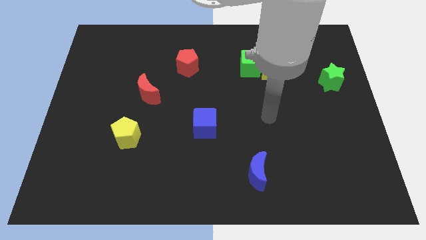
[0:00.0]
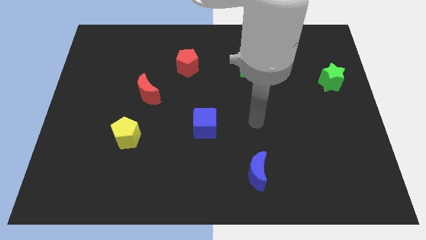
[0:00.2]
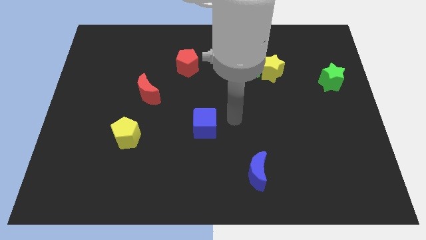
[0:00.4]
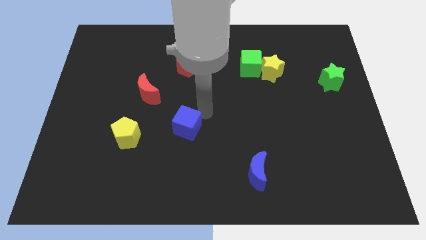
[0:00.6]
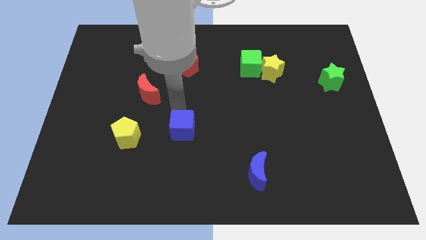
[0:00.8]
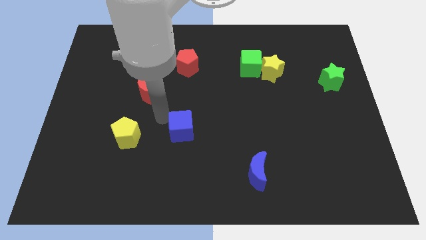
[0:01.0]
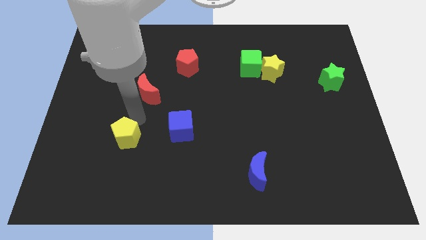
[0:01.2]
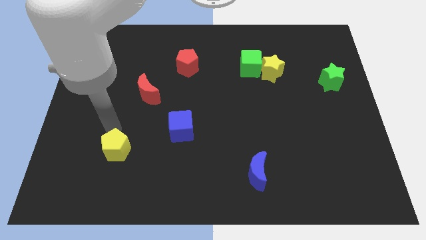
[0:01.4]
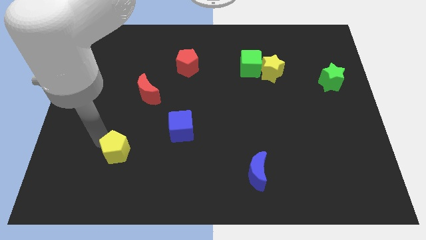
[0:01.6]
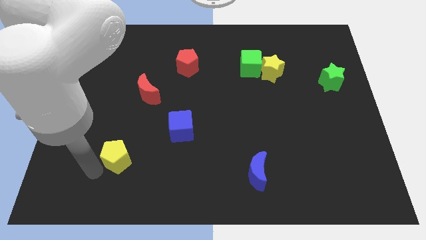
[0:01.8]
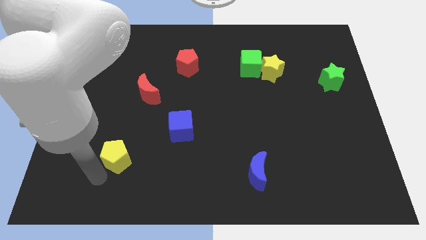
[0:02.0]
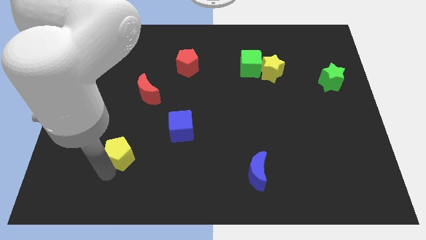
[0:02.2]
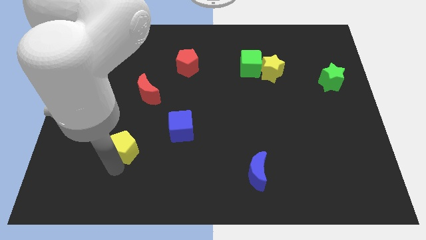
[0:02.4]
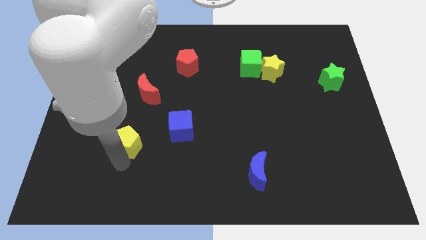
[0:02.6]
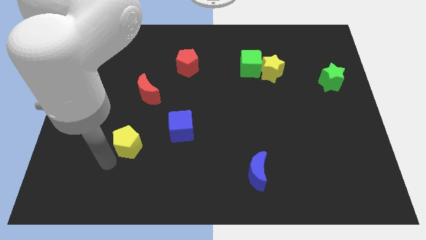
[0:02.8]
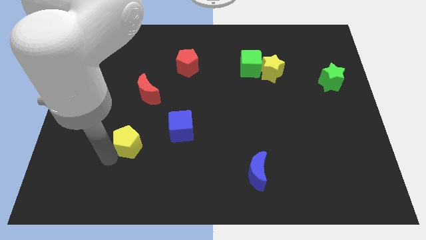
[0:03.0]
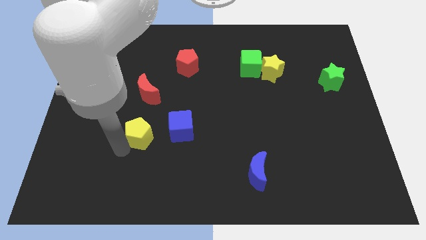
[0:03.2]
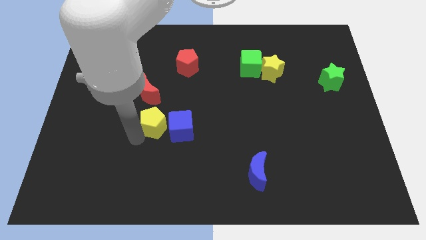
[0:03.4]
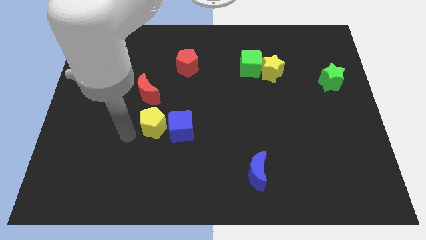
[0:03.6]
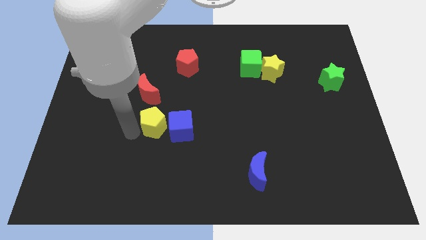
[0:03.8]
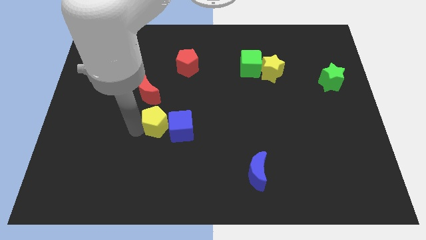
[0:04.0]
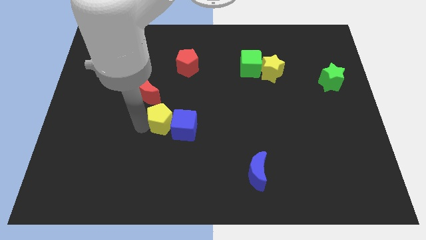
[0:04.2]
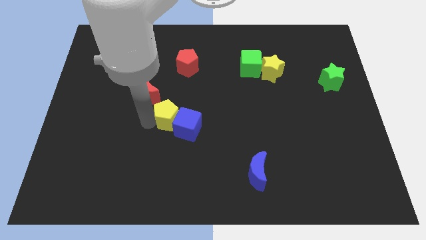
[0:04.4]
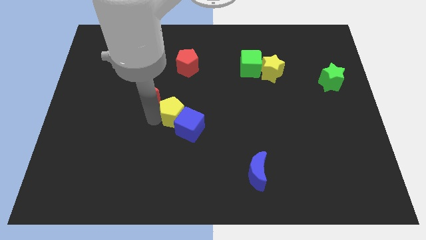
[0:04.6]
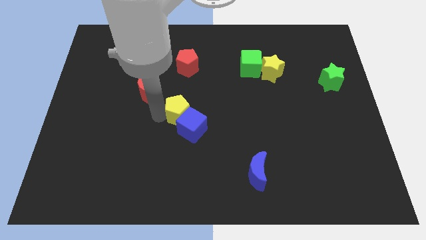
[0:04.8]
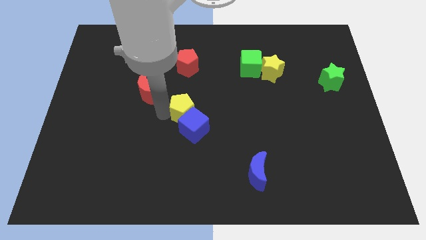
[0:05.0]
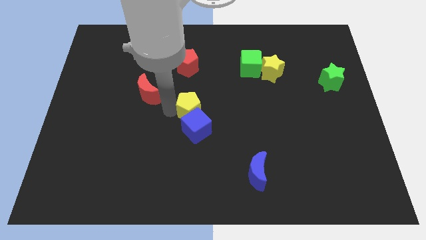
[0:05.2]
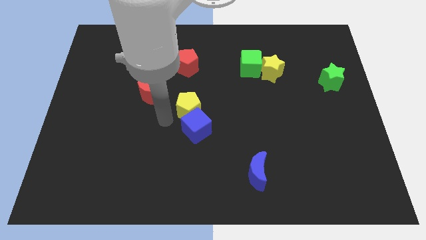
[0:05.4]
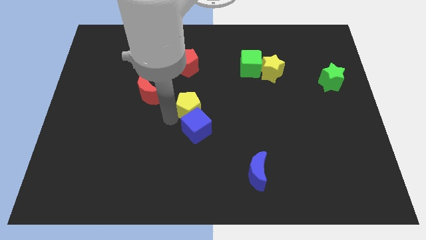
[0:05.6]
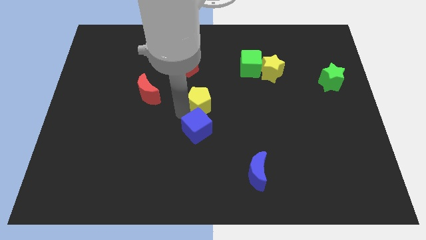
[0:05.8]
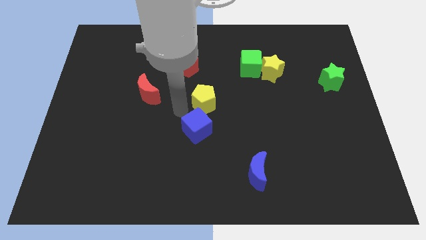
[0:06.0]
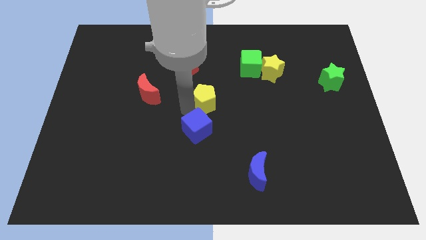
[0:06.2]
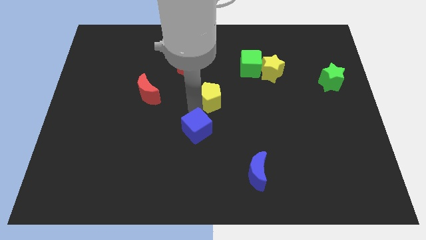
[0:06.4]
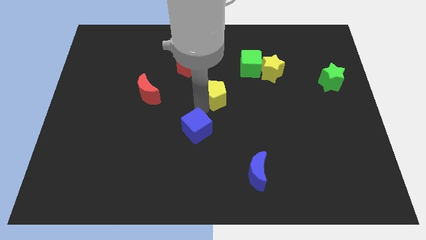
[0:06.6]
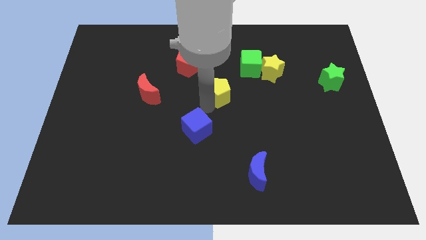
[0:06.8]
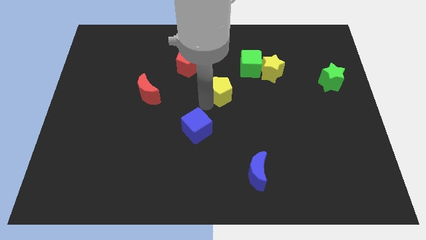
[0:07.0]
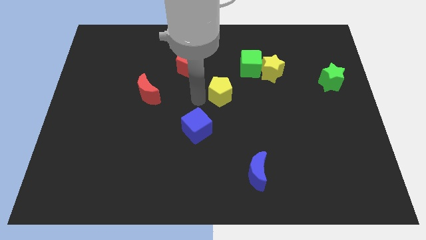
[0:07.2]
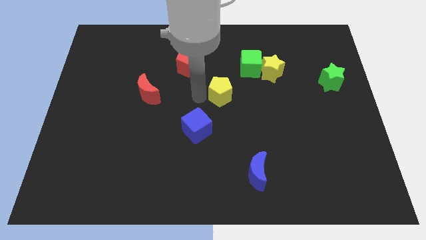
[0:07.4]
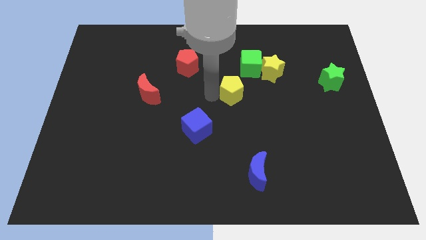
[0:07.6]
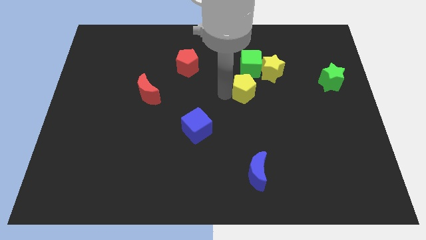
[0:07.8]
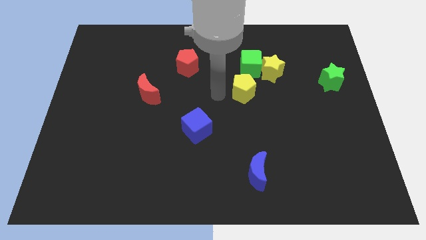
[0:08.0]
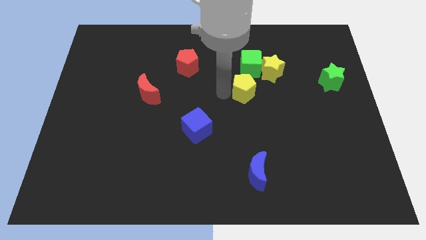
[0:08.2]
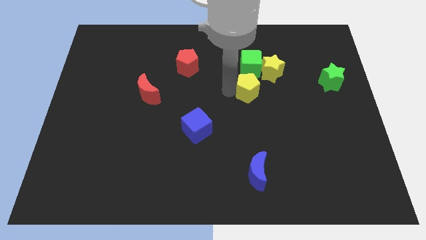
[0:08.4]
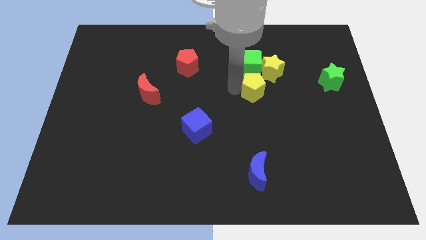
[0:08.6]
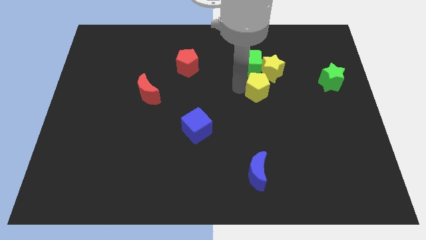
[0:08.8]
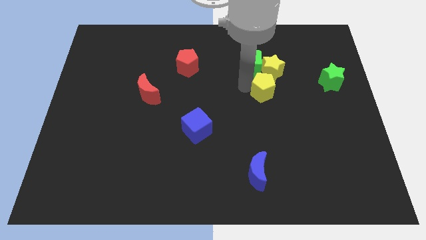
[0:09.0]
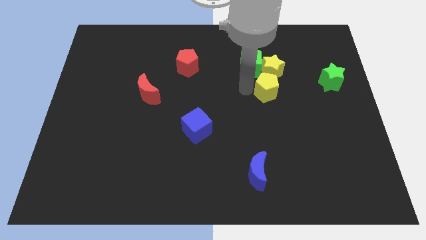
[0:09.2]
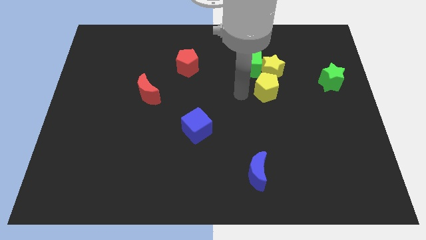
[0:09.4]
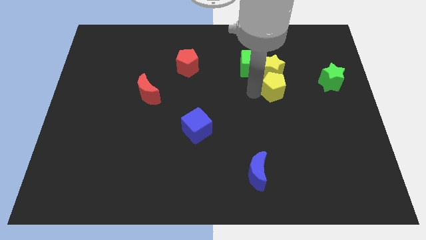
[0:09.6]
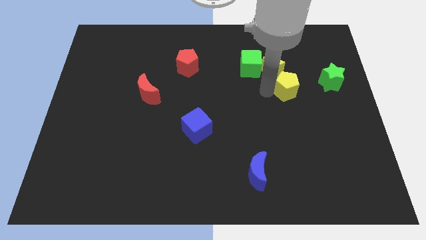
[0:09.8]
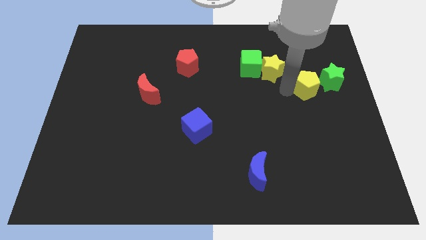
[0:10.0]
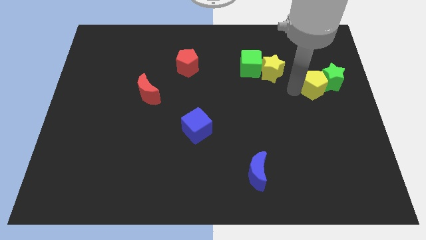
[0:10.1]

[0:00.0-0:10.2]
push the yellow pentagon to the green star

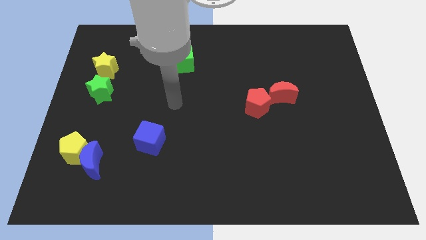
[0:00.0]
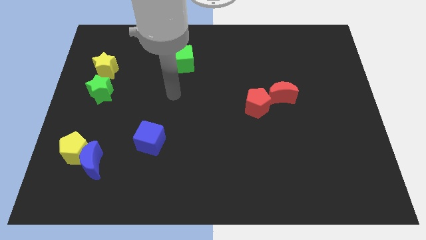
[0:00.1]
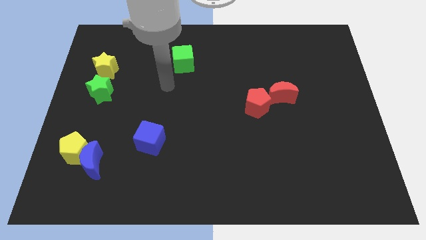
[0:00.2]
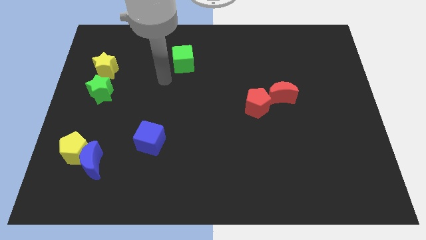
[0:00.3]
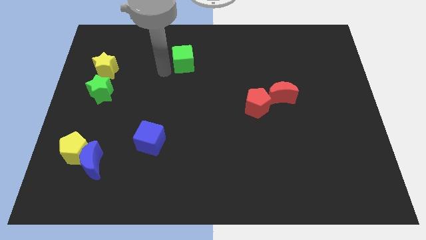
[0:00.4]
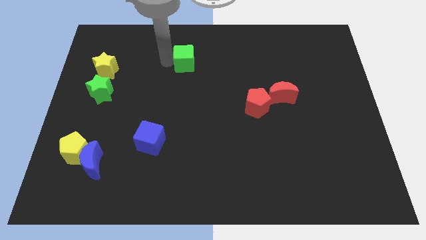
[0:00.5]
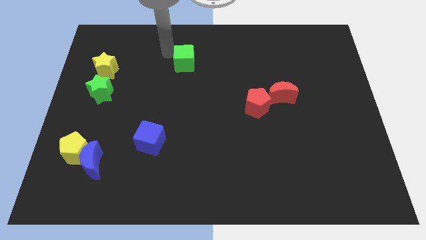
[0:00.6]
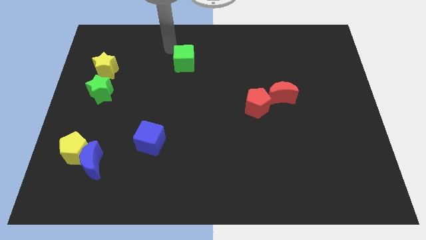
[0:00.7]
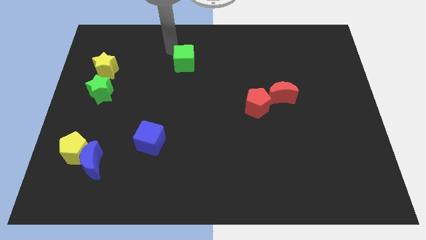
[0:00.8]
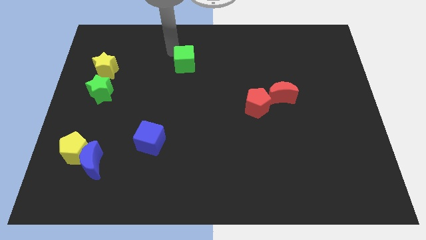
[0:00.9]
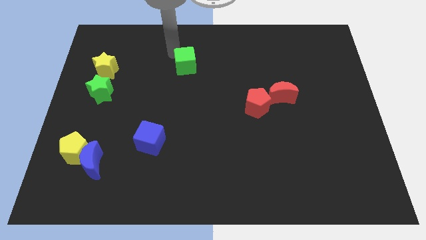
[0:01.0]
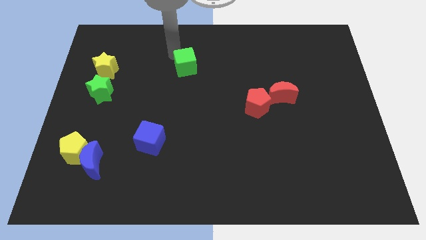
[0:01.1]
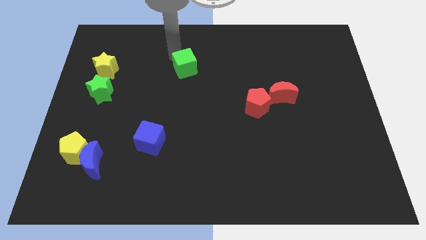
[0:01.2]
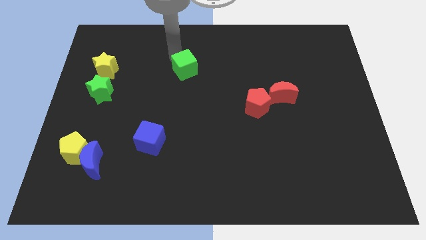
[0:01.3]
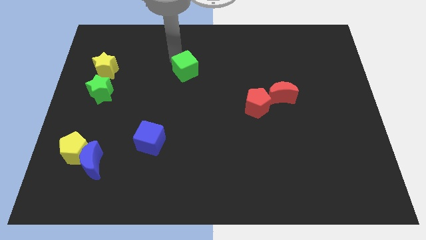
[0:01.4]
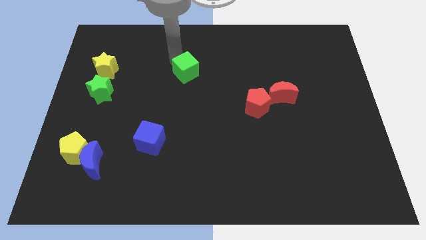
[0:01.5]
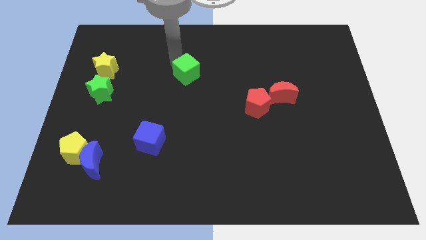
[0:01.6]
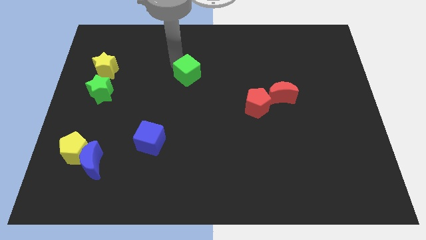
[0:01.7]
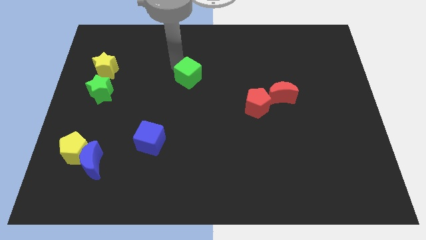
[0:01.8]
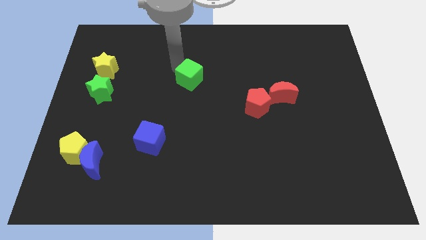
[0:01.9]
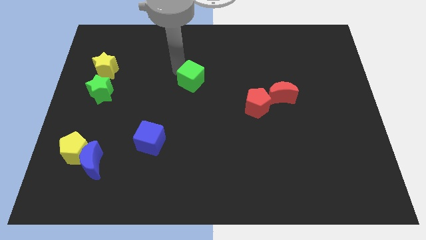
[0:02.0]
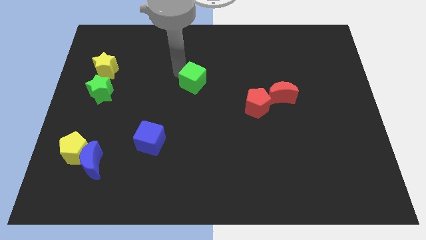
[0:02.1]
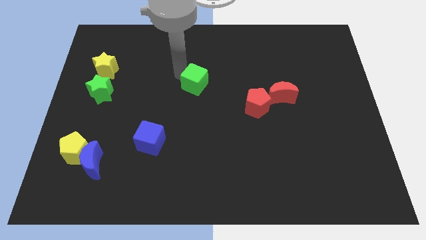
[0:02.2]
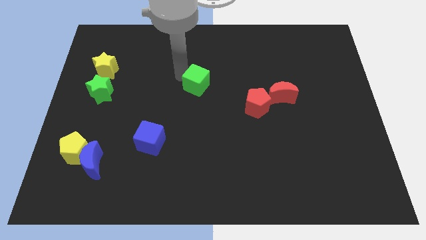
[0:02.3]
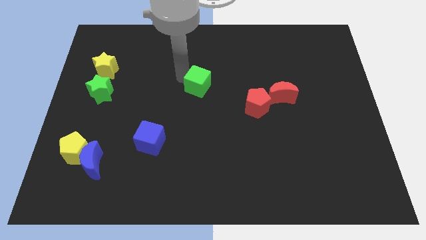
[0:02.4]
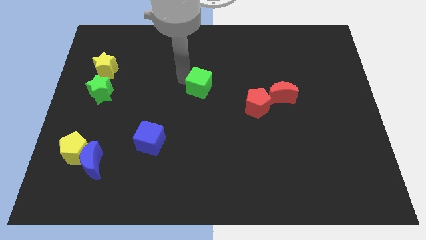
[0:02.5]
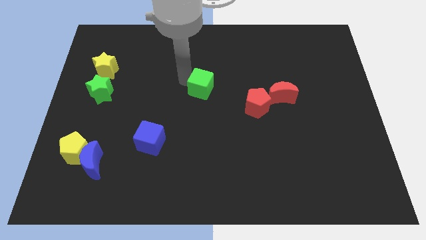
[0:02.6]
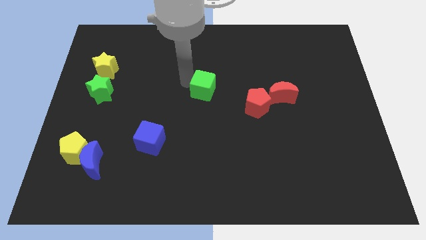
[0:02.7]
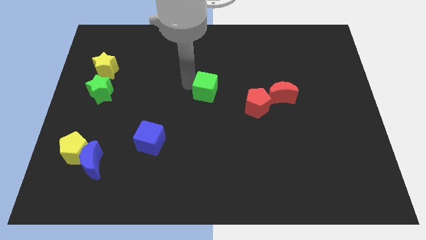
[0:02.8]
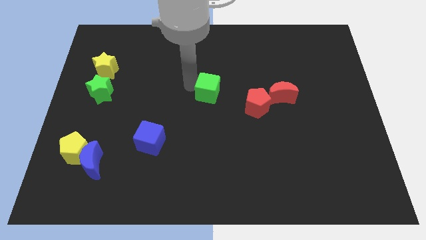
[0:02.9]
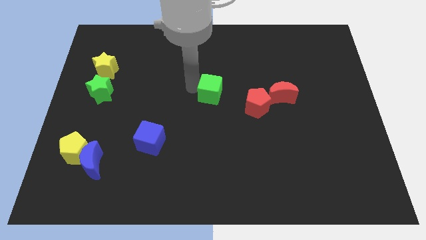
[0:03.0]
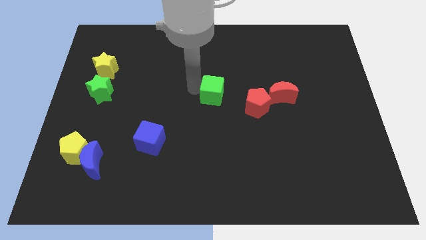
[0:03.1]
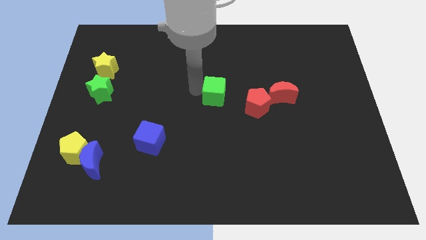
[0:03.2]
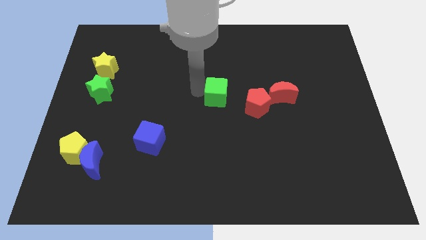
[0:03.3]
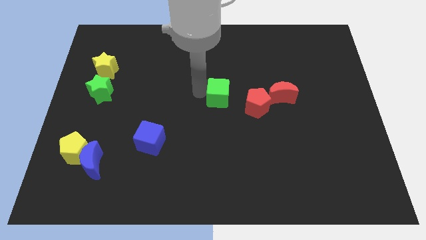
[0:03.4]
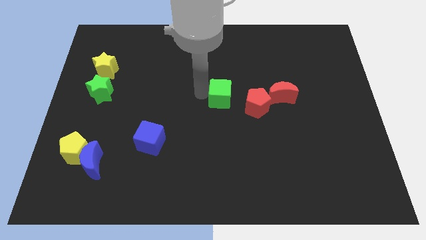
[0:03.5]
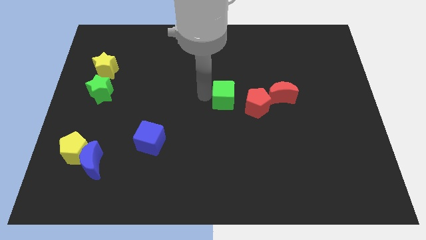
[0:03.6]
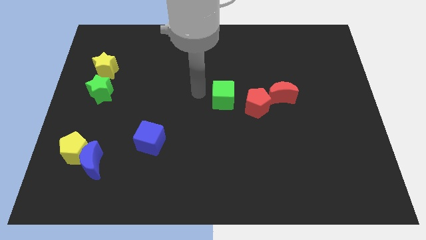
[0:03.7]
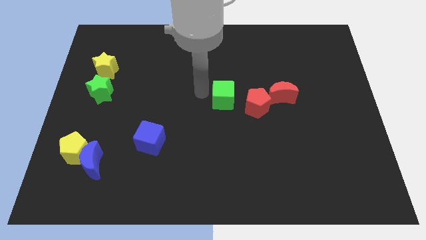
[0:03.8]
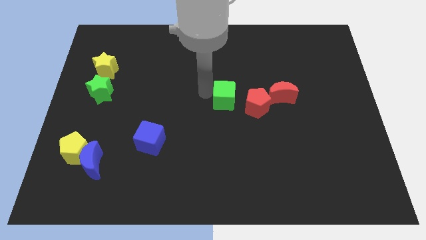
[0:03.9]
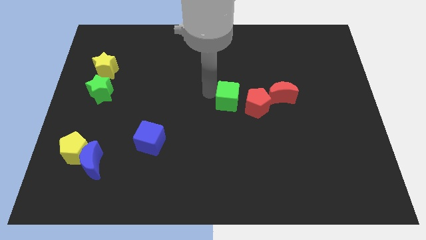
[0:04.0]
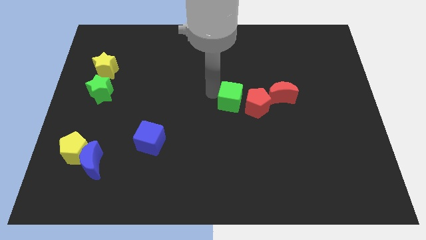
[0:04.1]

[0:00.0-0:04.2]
put the green cube next to the red pentagon
